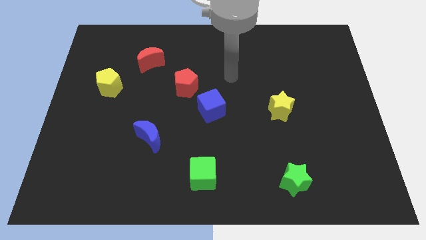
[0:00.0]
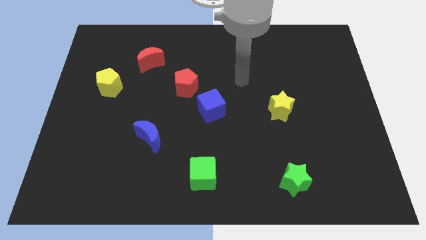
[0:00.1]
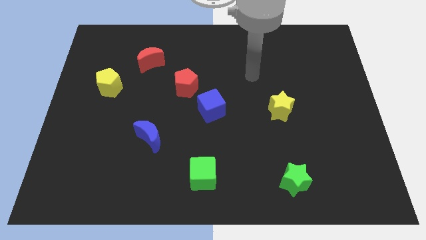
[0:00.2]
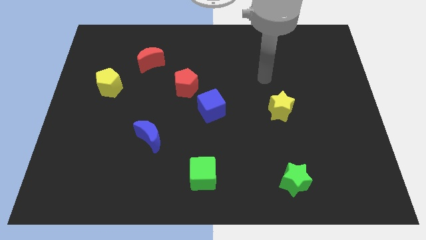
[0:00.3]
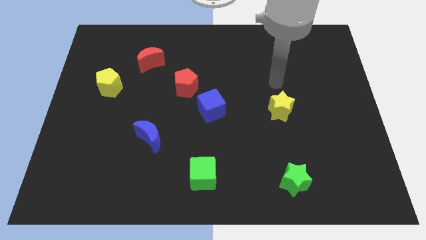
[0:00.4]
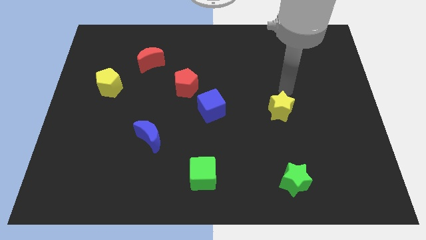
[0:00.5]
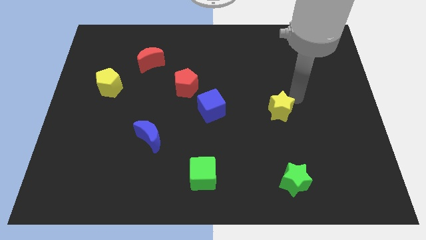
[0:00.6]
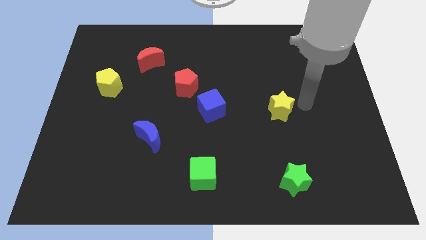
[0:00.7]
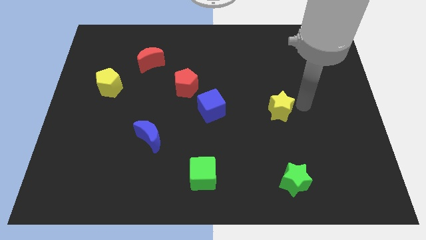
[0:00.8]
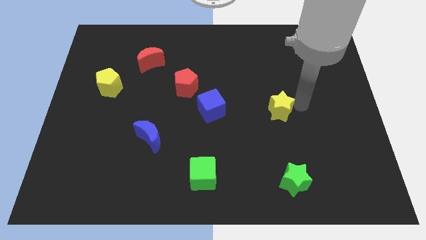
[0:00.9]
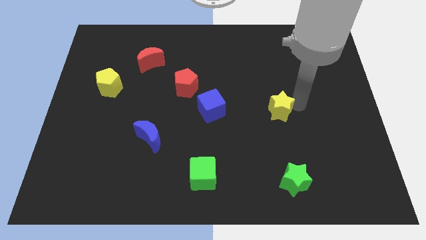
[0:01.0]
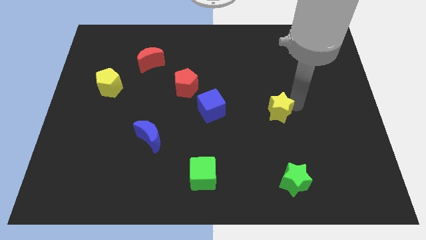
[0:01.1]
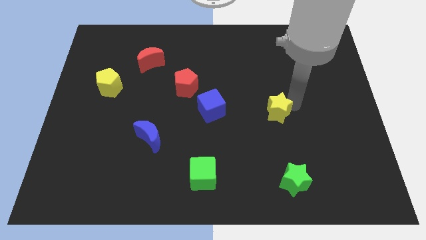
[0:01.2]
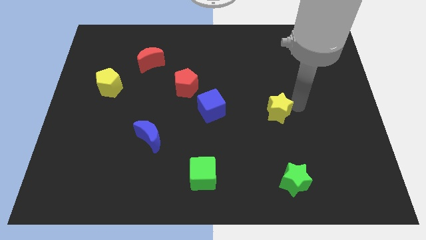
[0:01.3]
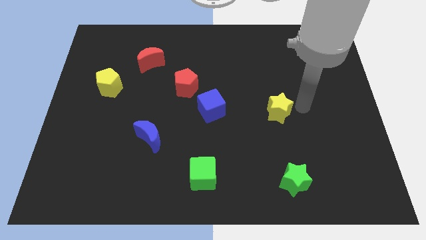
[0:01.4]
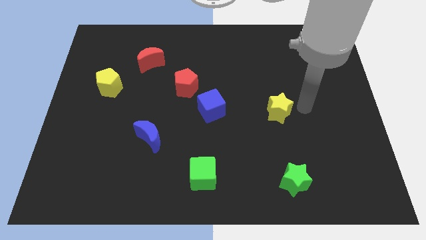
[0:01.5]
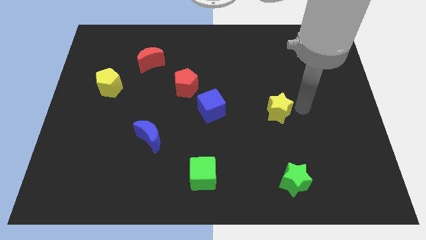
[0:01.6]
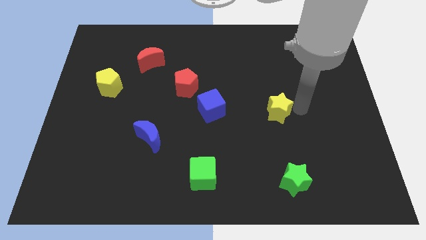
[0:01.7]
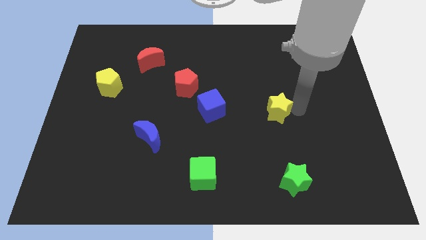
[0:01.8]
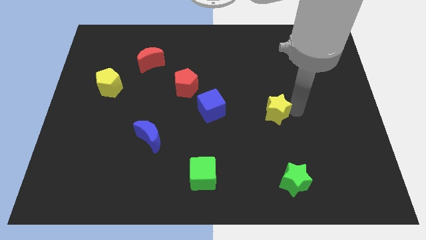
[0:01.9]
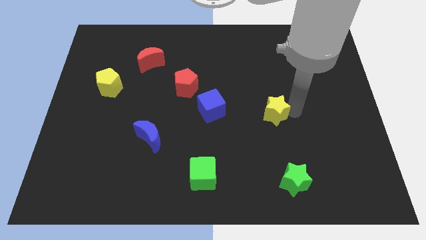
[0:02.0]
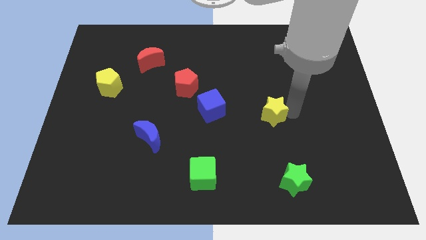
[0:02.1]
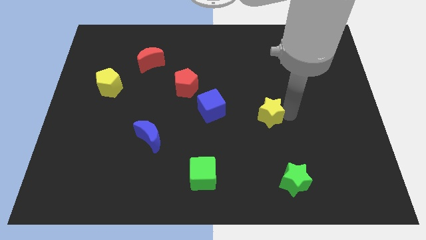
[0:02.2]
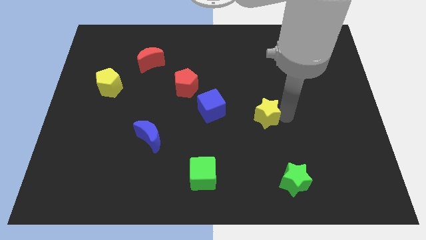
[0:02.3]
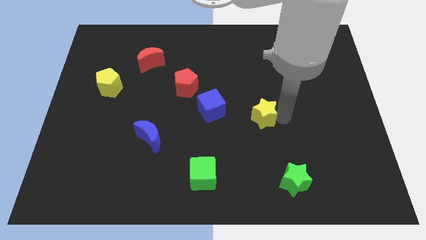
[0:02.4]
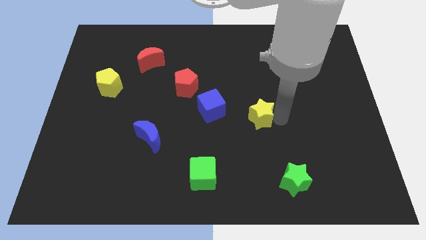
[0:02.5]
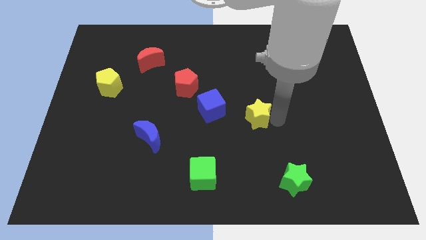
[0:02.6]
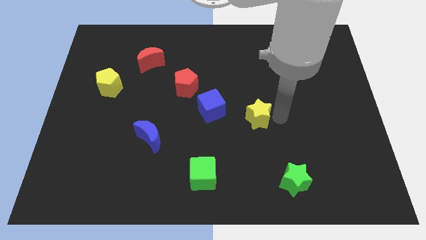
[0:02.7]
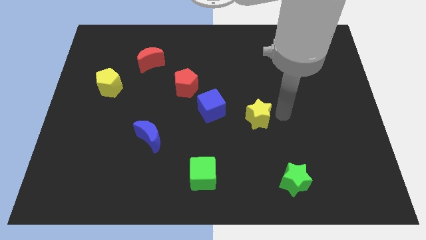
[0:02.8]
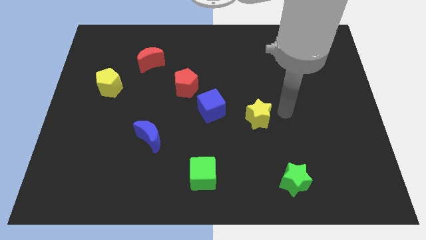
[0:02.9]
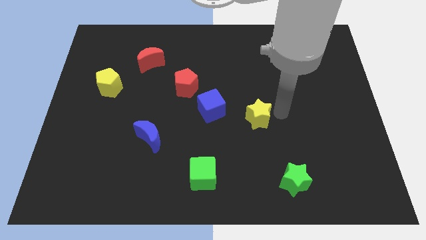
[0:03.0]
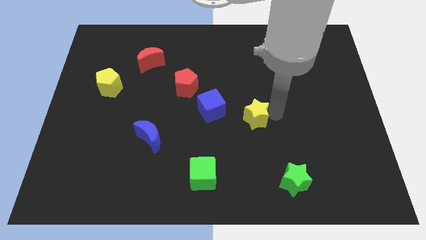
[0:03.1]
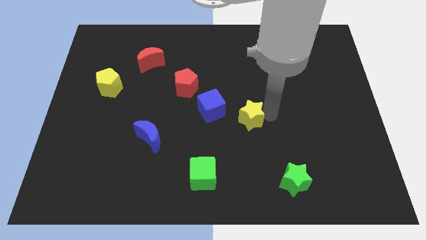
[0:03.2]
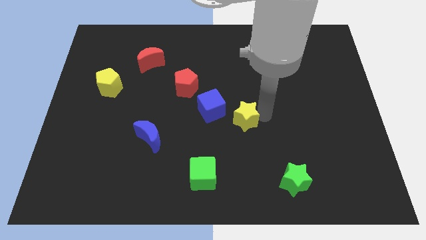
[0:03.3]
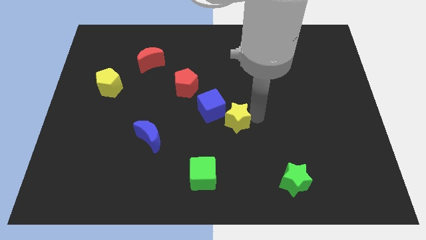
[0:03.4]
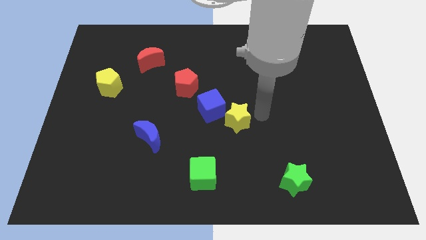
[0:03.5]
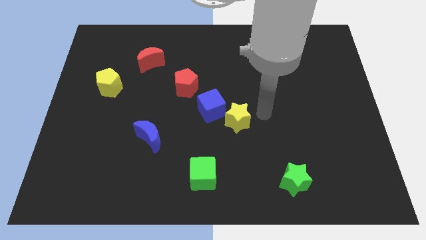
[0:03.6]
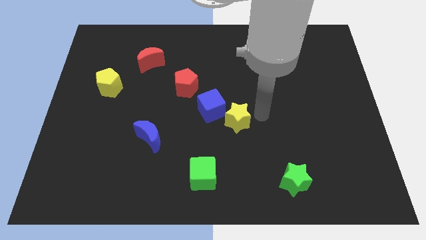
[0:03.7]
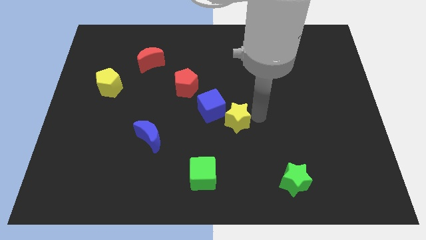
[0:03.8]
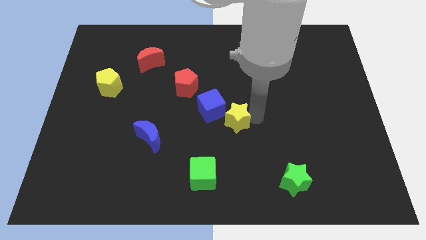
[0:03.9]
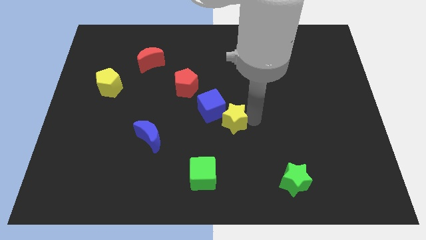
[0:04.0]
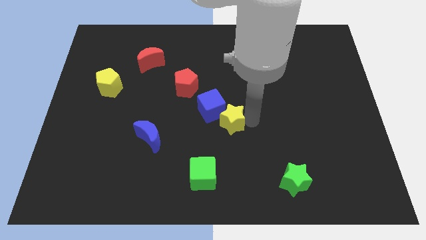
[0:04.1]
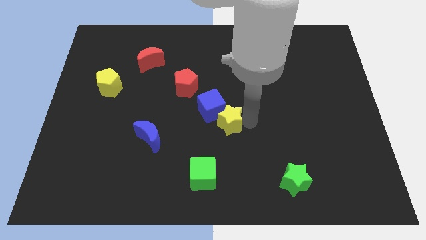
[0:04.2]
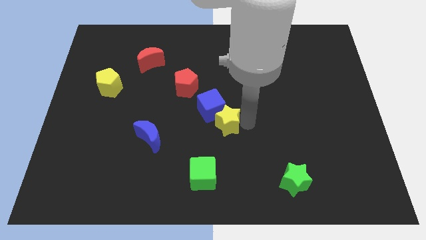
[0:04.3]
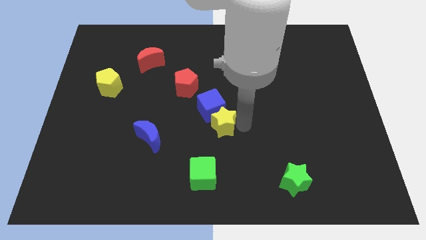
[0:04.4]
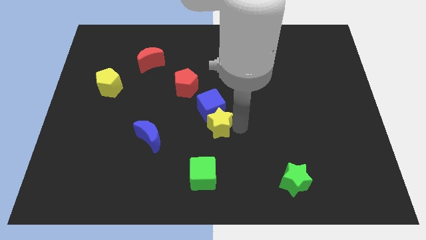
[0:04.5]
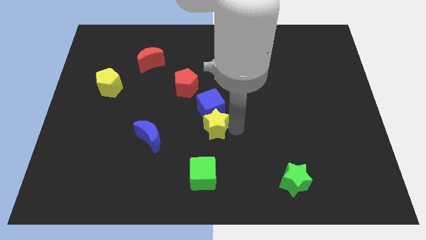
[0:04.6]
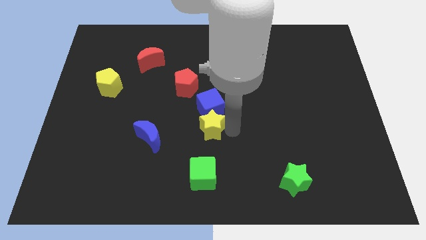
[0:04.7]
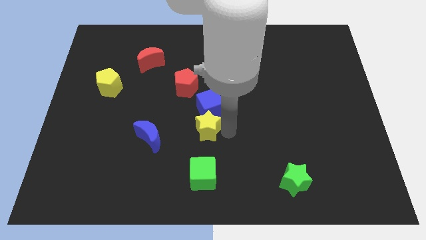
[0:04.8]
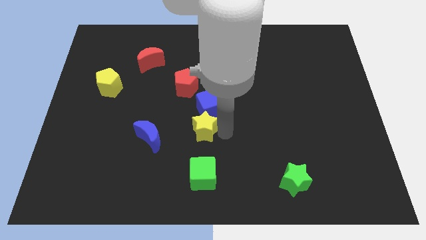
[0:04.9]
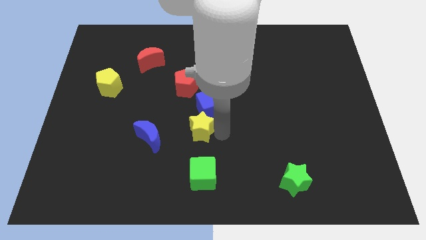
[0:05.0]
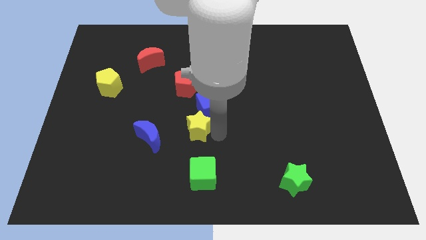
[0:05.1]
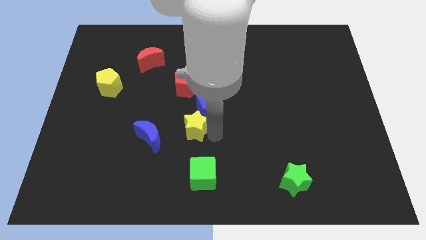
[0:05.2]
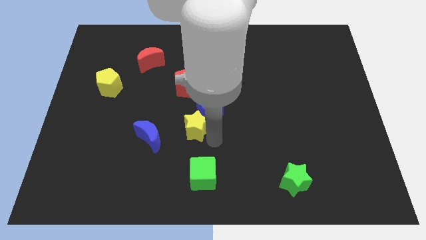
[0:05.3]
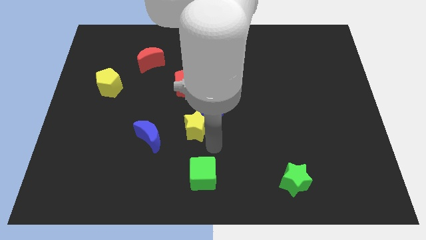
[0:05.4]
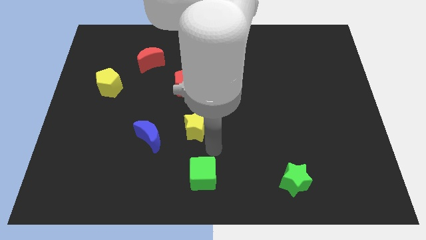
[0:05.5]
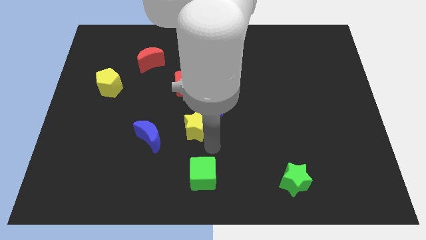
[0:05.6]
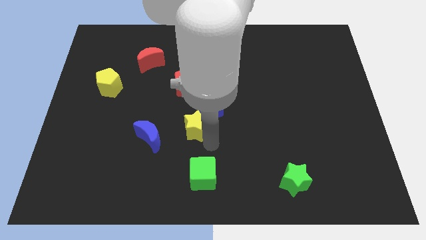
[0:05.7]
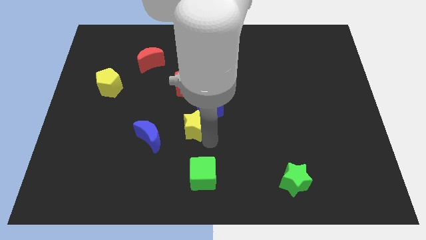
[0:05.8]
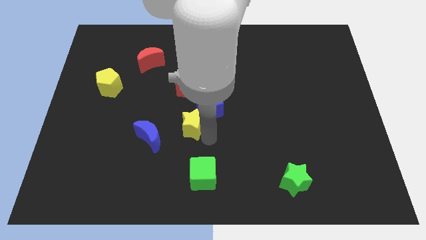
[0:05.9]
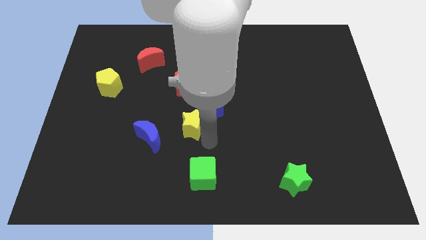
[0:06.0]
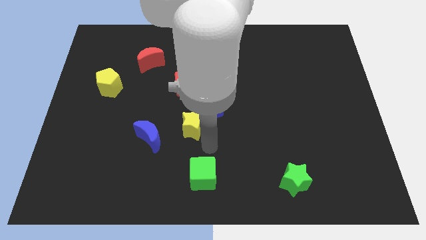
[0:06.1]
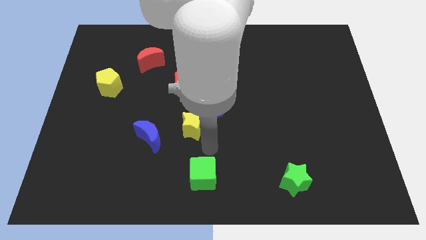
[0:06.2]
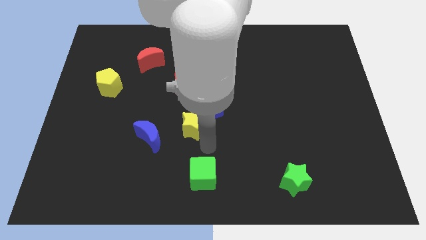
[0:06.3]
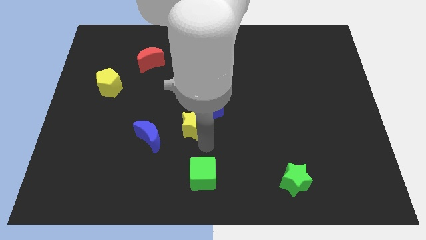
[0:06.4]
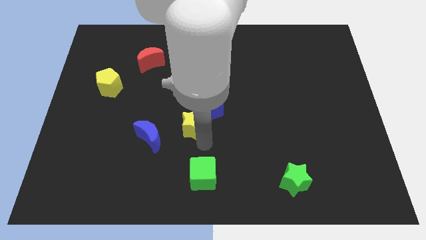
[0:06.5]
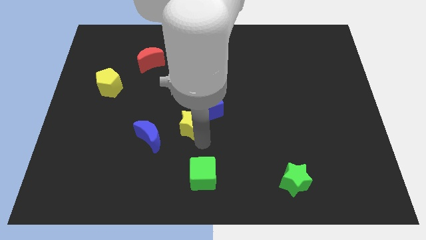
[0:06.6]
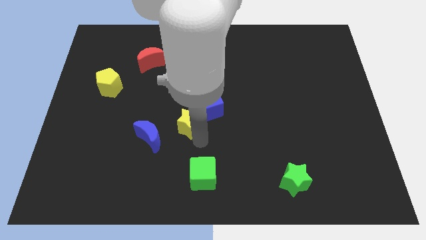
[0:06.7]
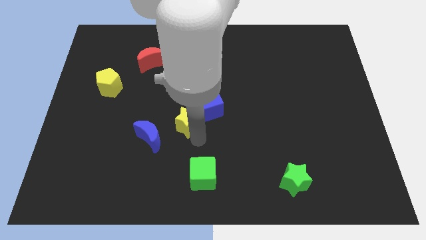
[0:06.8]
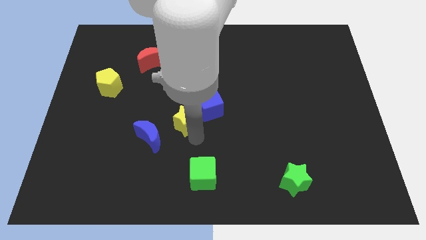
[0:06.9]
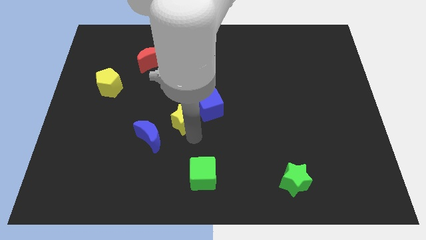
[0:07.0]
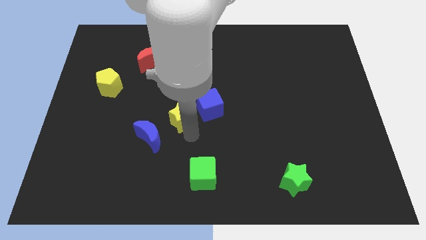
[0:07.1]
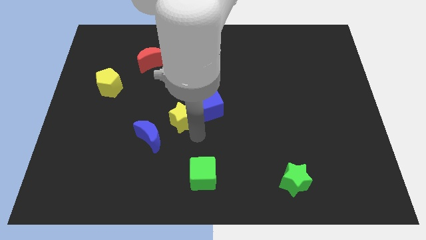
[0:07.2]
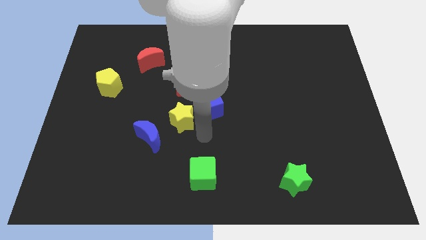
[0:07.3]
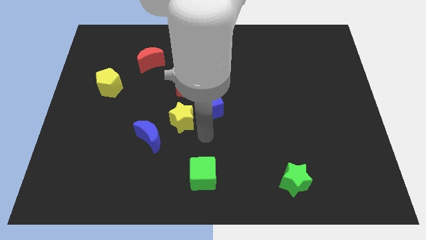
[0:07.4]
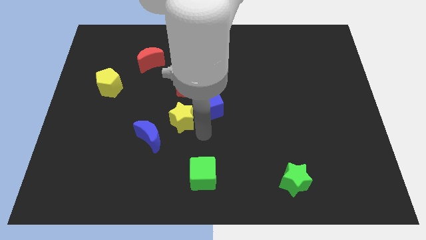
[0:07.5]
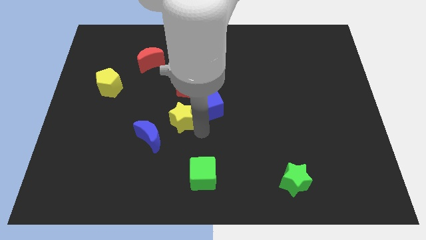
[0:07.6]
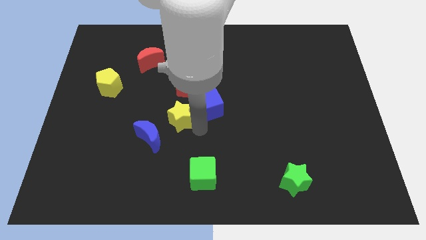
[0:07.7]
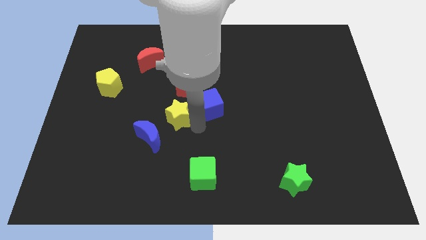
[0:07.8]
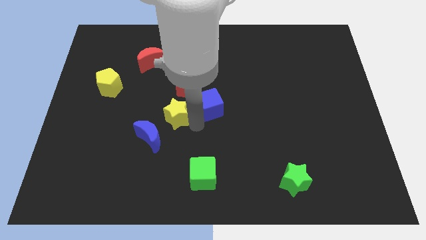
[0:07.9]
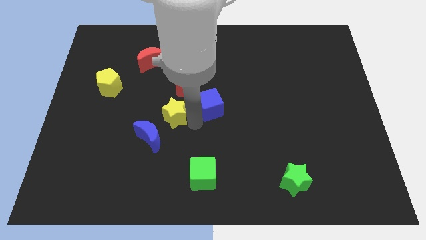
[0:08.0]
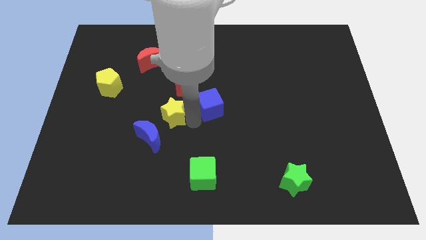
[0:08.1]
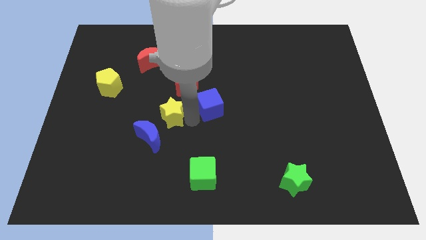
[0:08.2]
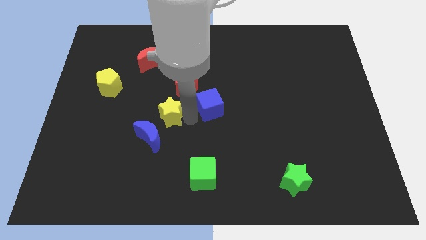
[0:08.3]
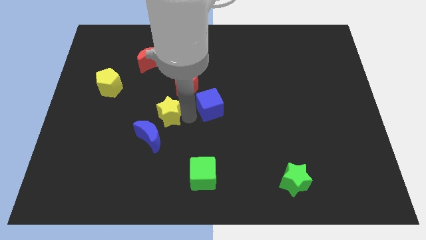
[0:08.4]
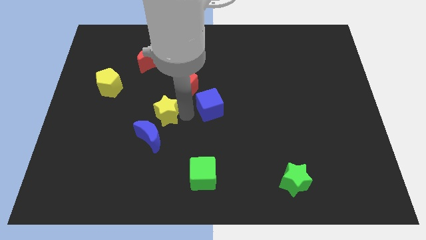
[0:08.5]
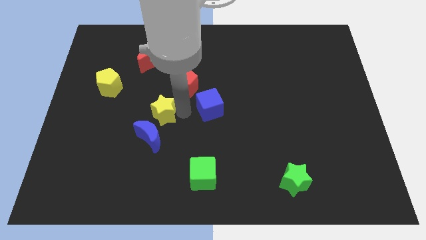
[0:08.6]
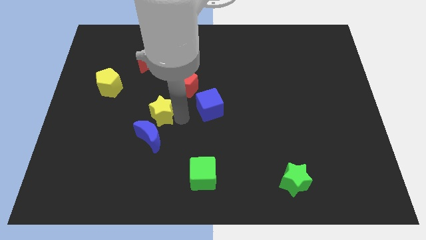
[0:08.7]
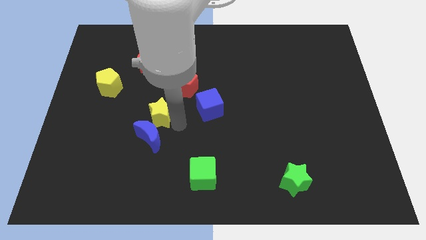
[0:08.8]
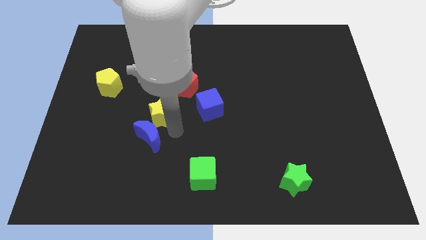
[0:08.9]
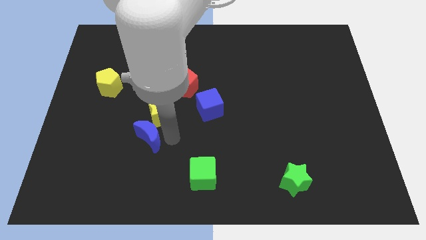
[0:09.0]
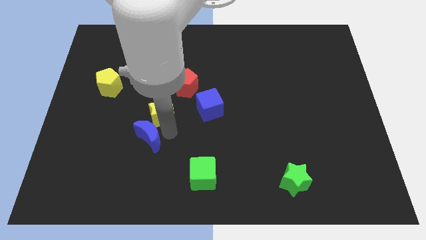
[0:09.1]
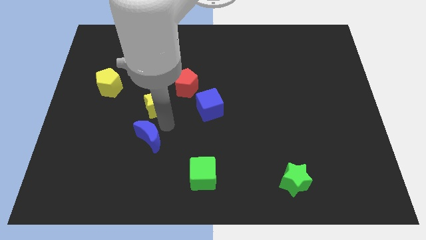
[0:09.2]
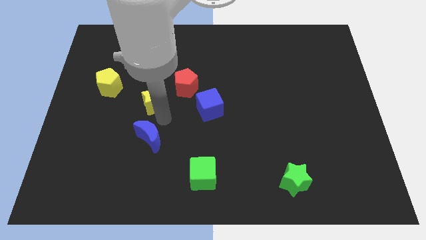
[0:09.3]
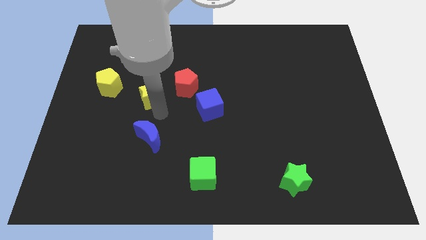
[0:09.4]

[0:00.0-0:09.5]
slide the yellow star right of the yellow pentagon
